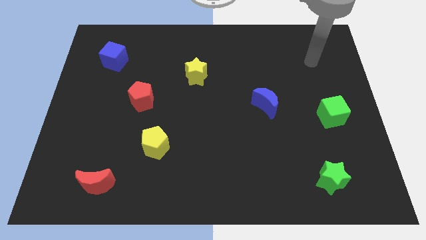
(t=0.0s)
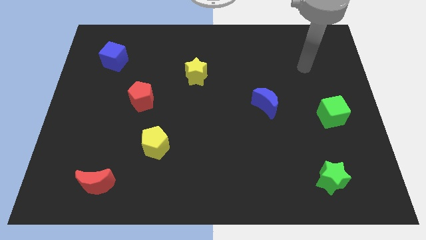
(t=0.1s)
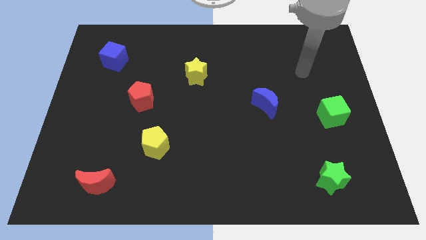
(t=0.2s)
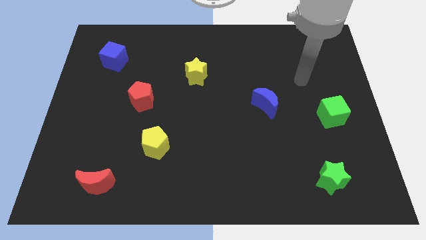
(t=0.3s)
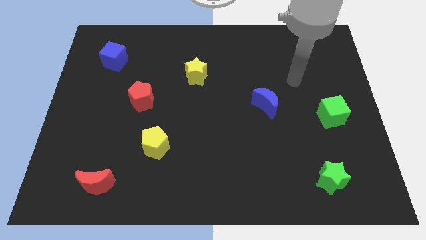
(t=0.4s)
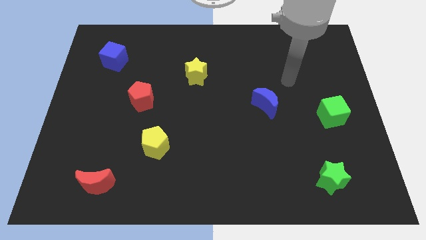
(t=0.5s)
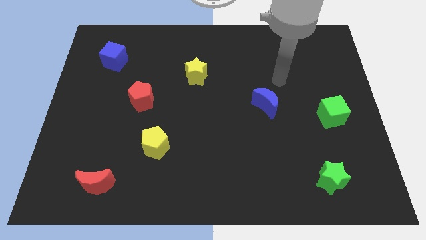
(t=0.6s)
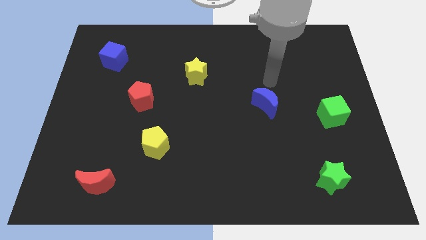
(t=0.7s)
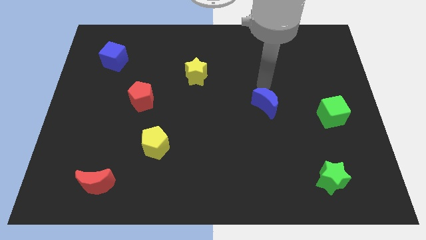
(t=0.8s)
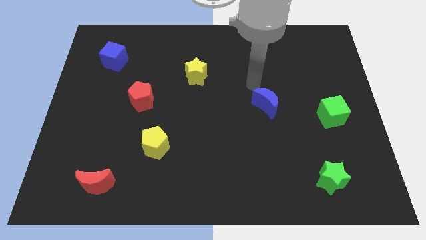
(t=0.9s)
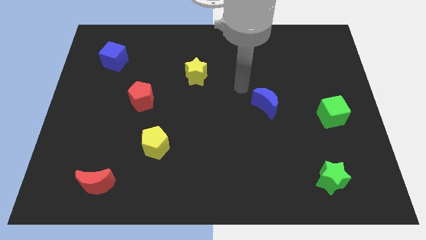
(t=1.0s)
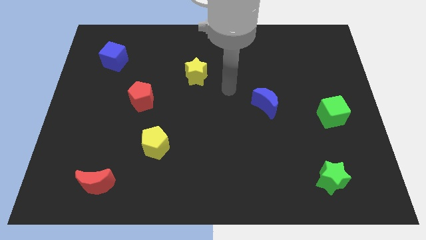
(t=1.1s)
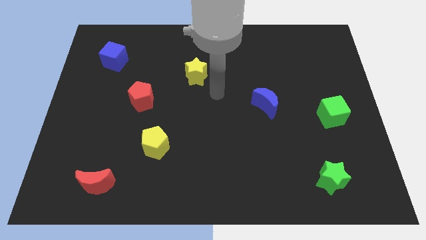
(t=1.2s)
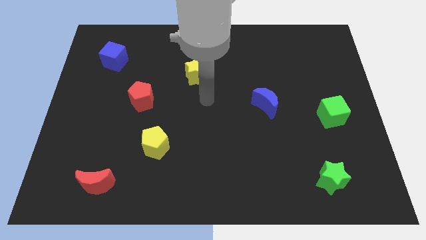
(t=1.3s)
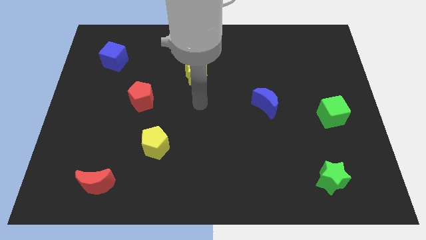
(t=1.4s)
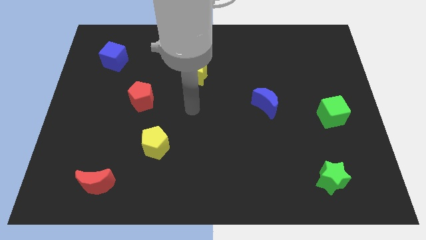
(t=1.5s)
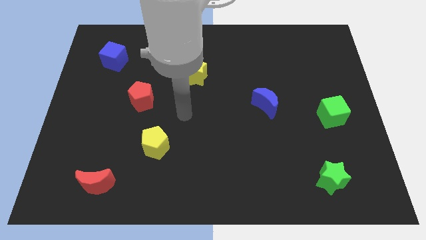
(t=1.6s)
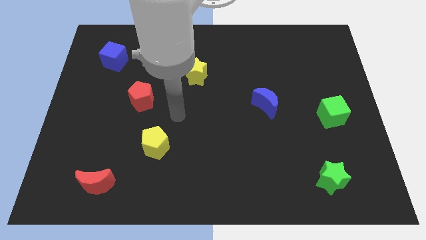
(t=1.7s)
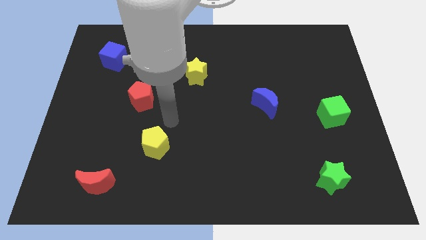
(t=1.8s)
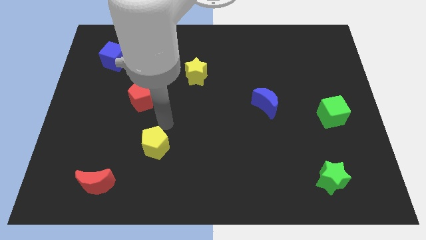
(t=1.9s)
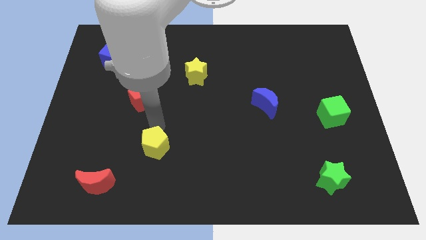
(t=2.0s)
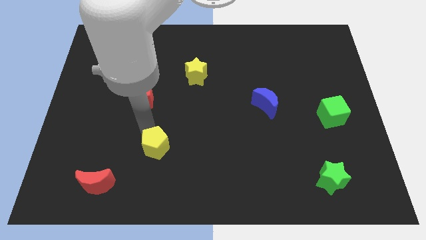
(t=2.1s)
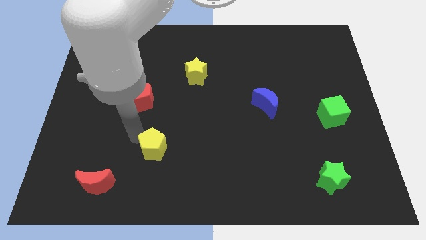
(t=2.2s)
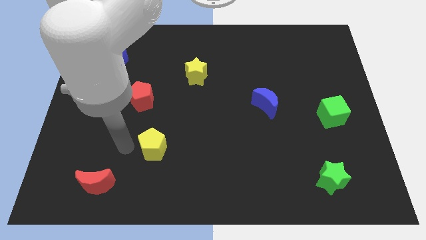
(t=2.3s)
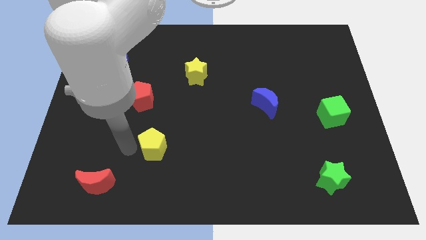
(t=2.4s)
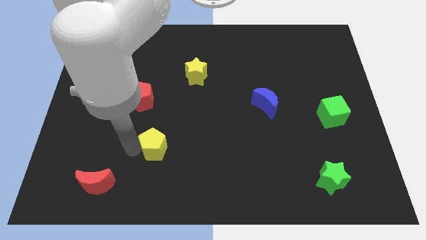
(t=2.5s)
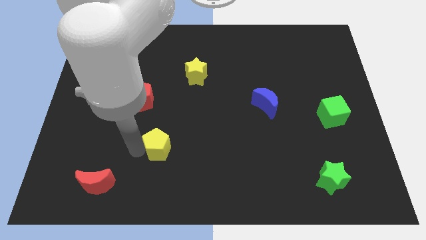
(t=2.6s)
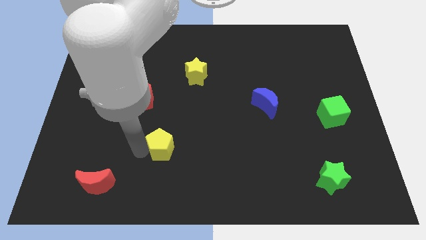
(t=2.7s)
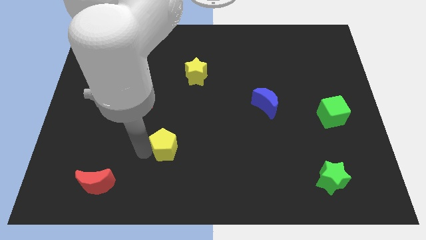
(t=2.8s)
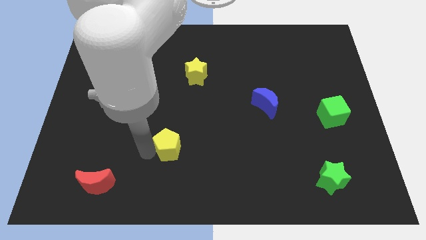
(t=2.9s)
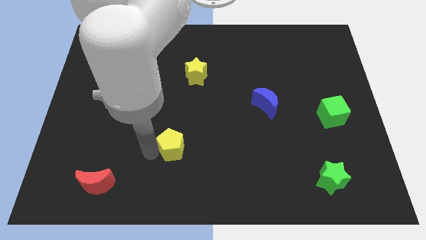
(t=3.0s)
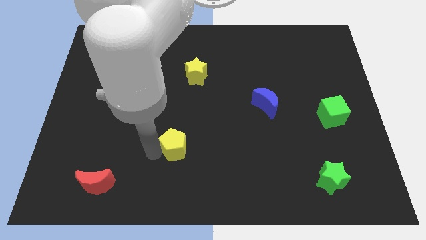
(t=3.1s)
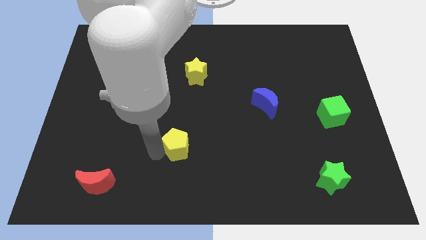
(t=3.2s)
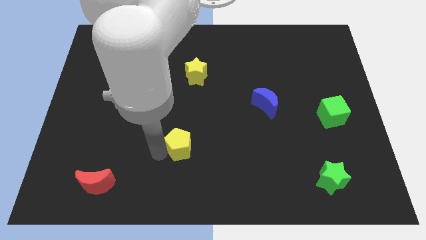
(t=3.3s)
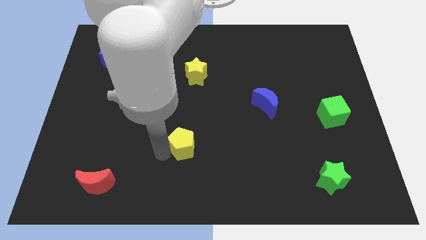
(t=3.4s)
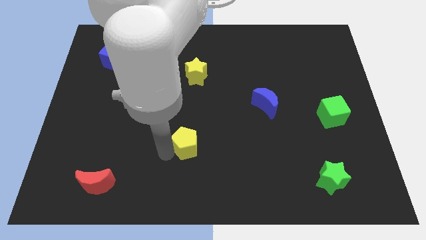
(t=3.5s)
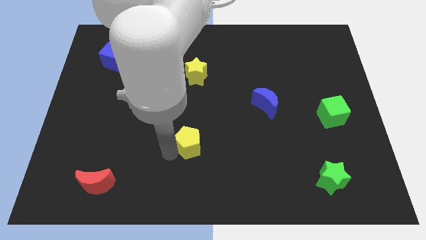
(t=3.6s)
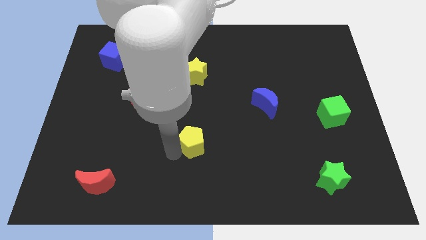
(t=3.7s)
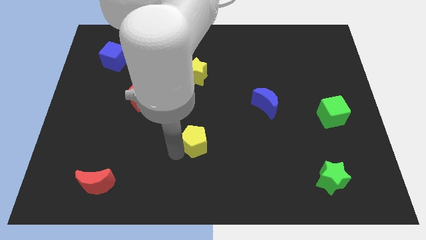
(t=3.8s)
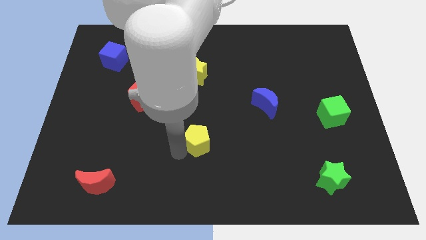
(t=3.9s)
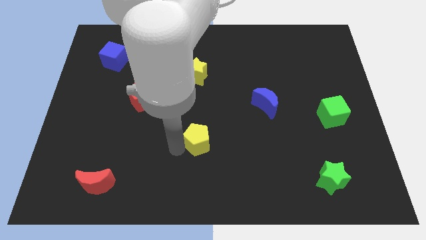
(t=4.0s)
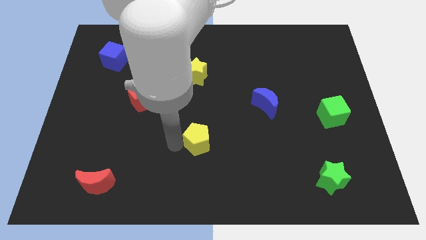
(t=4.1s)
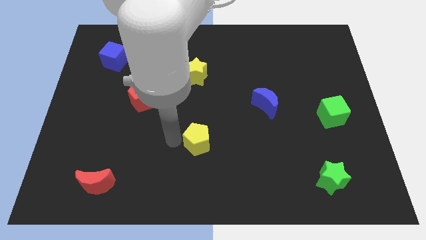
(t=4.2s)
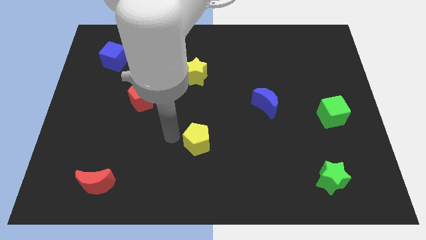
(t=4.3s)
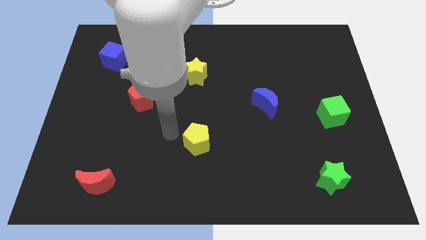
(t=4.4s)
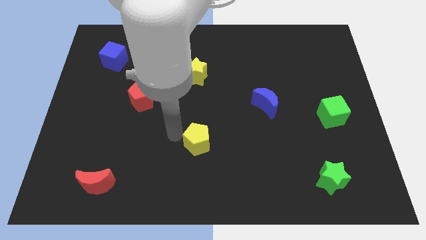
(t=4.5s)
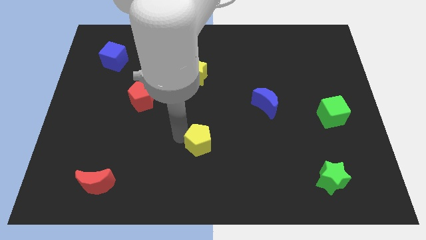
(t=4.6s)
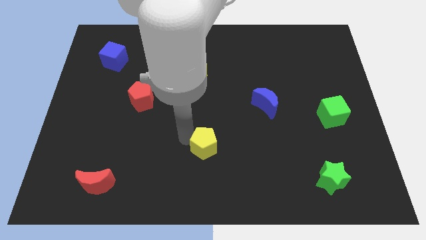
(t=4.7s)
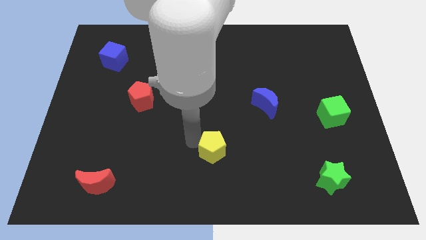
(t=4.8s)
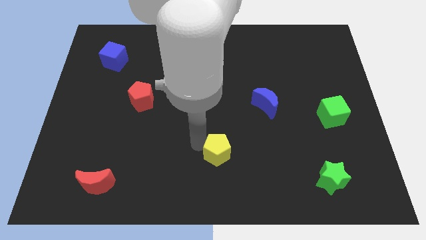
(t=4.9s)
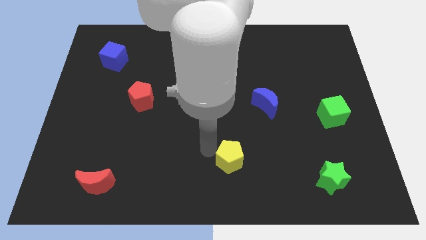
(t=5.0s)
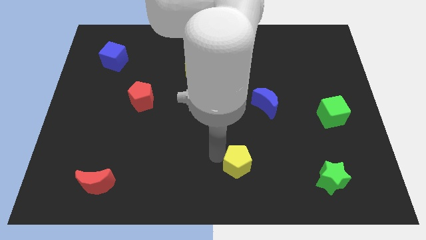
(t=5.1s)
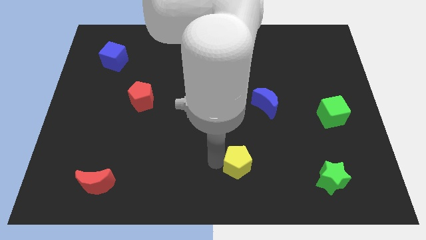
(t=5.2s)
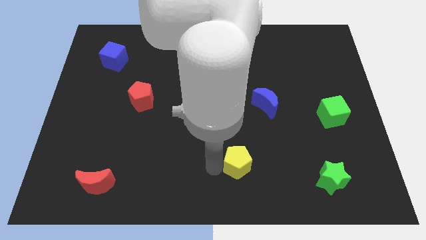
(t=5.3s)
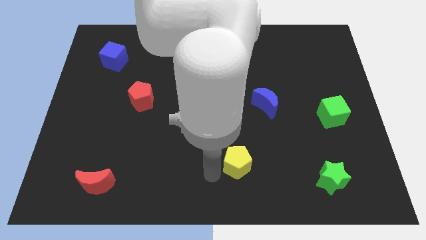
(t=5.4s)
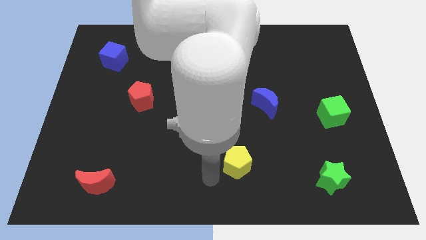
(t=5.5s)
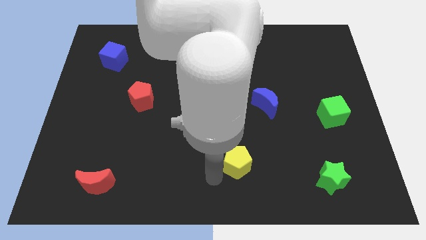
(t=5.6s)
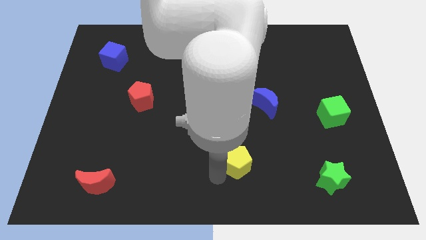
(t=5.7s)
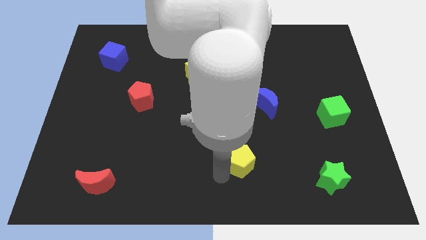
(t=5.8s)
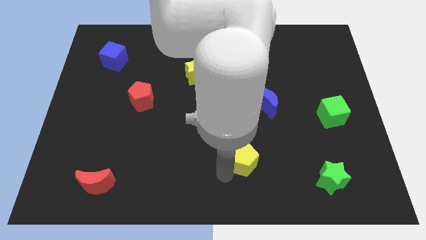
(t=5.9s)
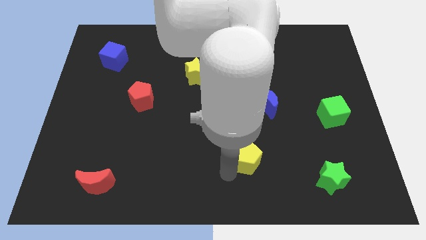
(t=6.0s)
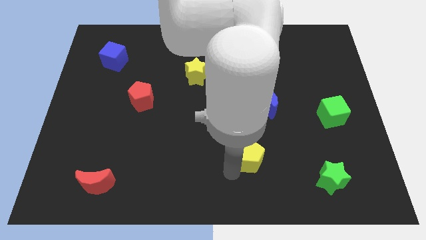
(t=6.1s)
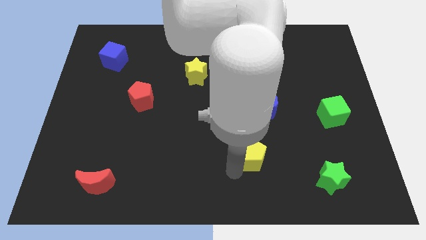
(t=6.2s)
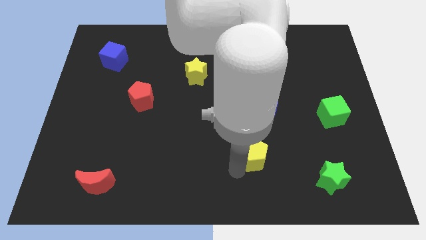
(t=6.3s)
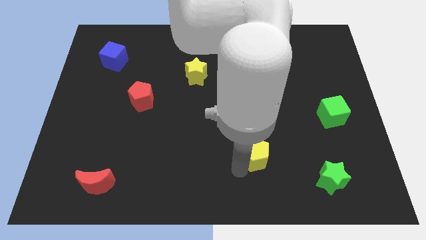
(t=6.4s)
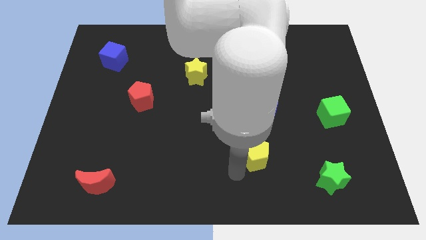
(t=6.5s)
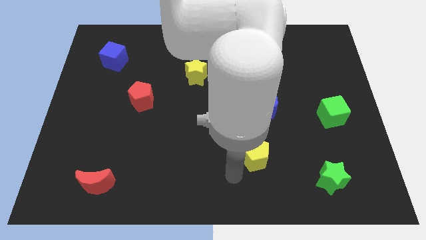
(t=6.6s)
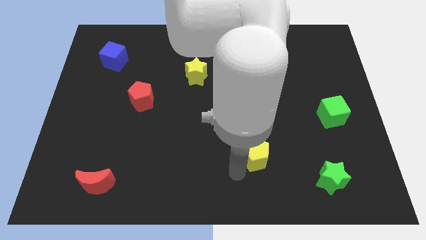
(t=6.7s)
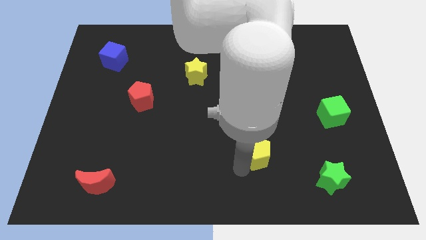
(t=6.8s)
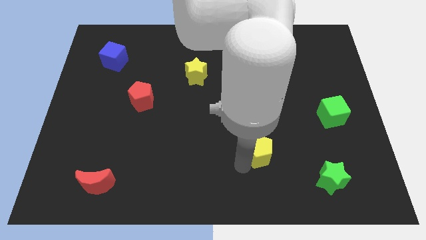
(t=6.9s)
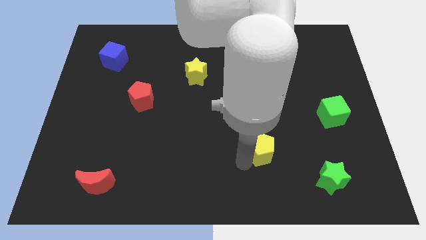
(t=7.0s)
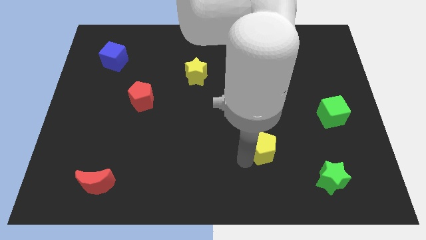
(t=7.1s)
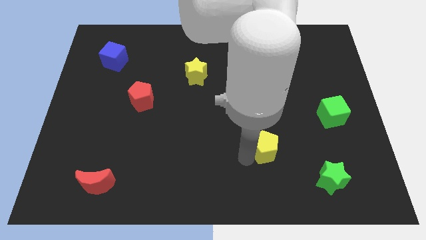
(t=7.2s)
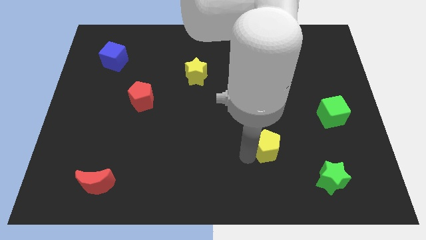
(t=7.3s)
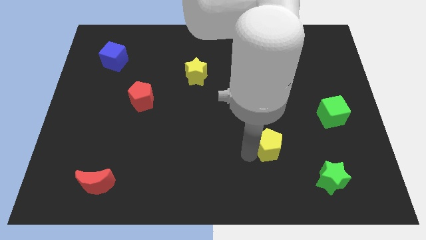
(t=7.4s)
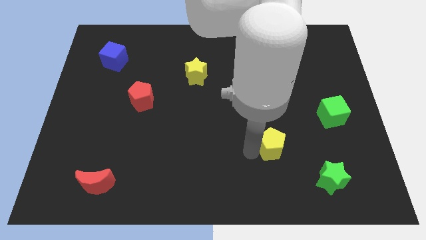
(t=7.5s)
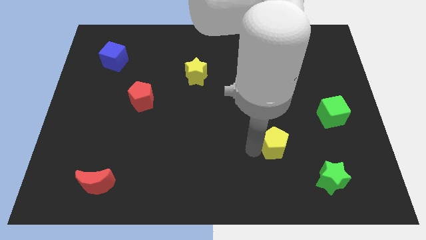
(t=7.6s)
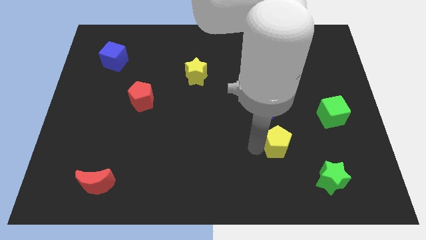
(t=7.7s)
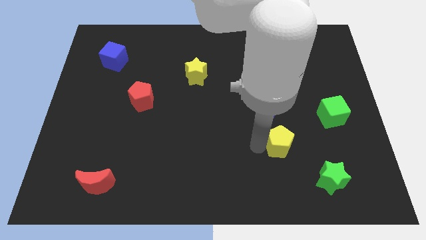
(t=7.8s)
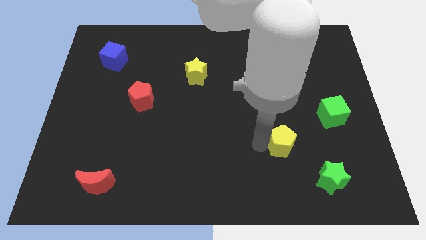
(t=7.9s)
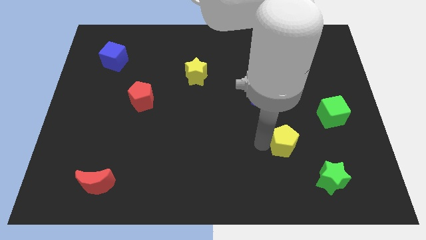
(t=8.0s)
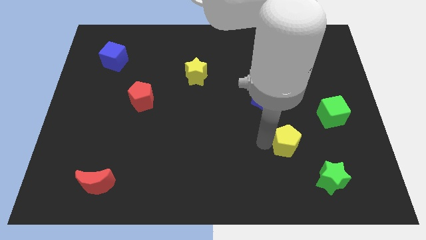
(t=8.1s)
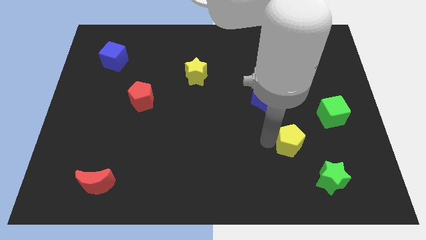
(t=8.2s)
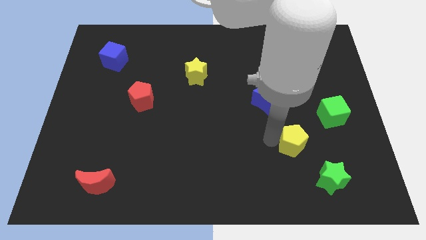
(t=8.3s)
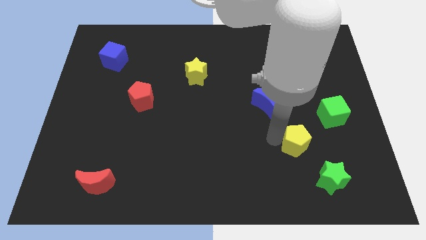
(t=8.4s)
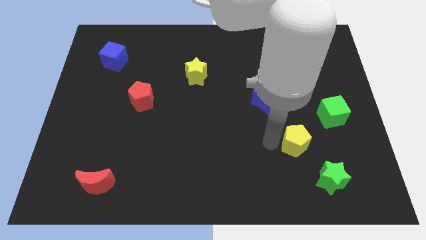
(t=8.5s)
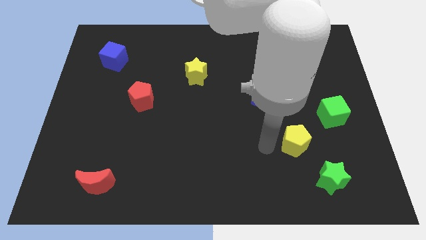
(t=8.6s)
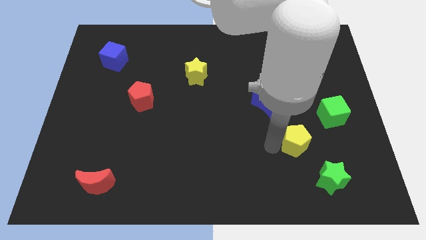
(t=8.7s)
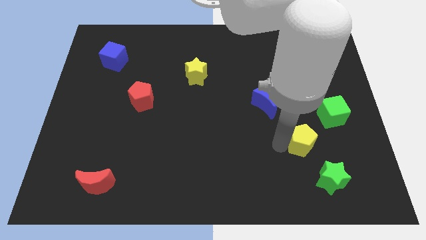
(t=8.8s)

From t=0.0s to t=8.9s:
move the yellow pentagon to the top side of the green star
